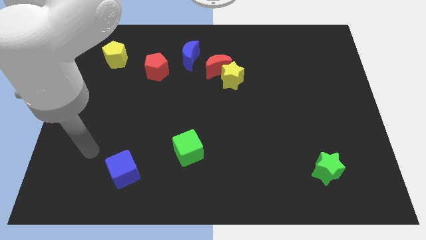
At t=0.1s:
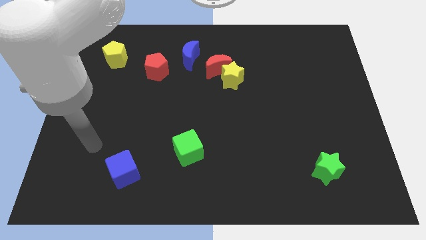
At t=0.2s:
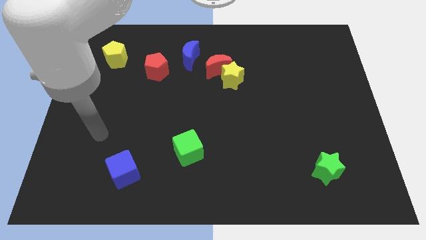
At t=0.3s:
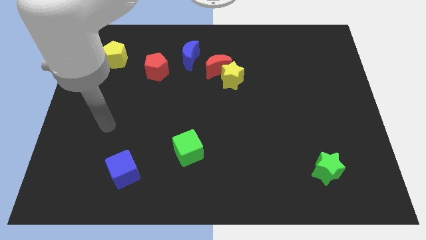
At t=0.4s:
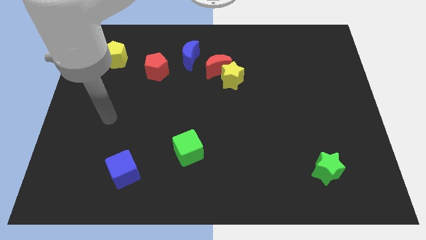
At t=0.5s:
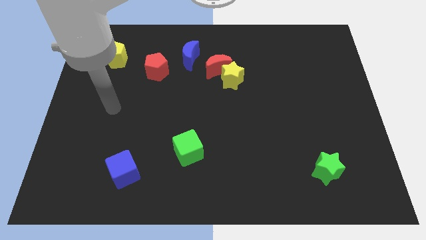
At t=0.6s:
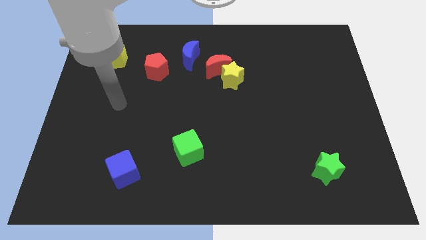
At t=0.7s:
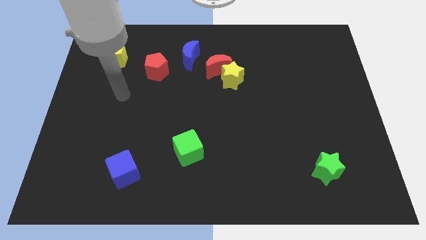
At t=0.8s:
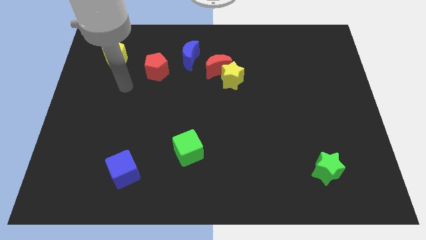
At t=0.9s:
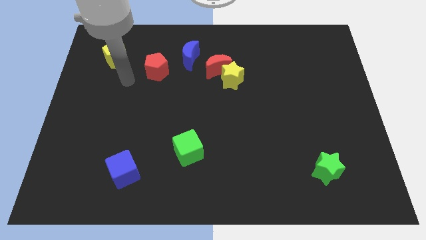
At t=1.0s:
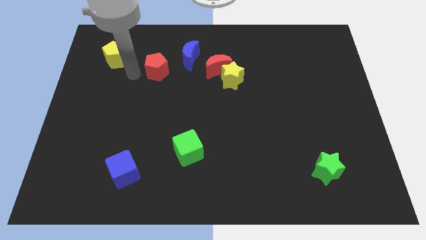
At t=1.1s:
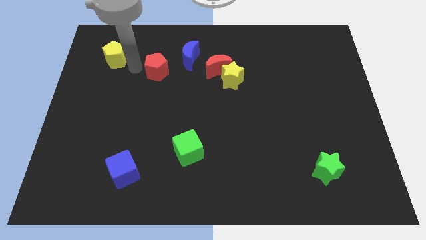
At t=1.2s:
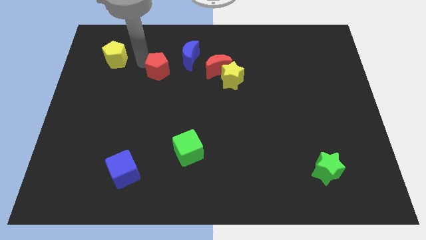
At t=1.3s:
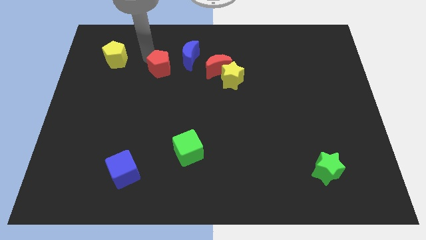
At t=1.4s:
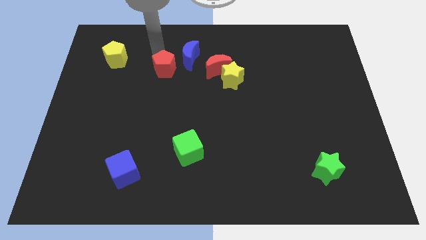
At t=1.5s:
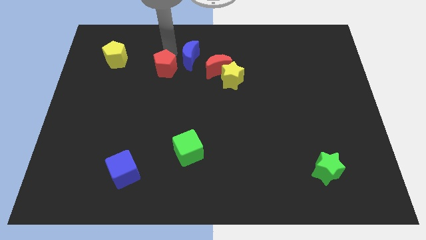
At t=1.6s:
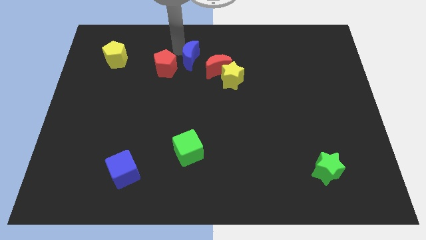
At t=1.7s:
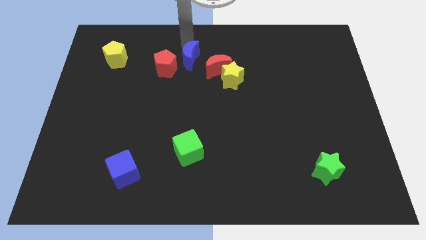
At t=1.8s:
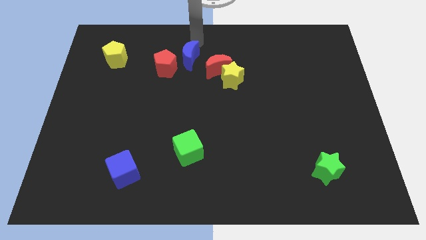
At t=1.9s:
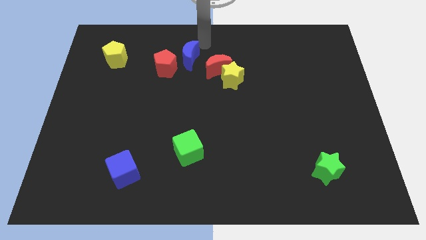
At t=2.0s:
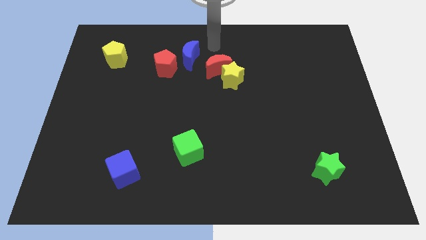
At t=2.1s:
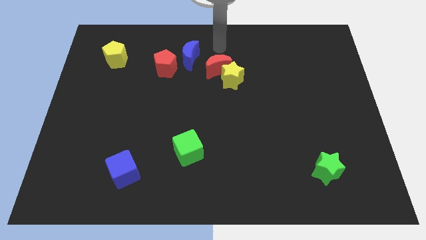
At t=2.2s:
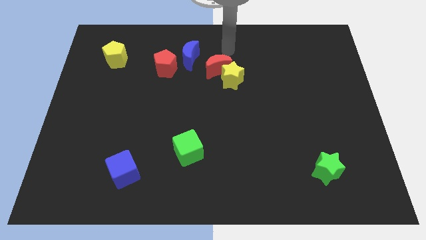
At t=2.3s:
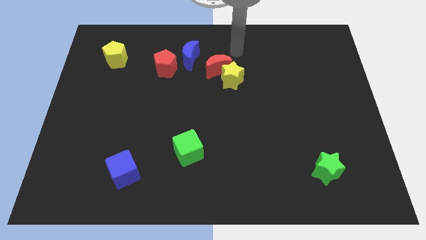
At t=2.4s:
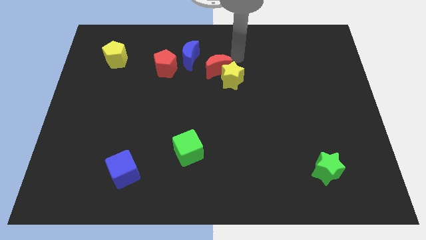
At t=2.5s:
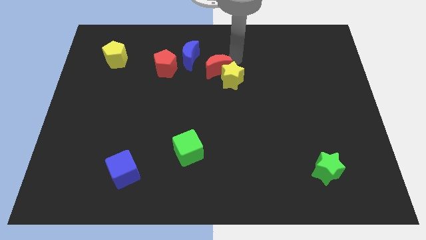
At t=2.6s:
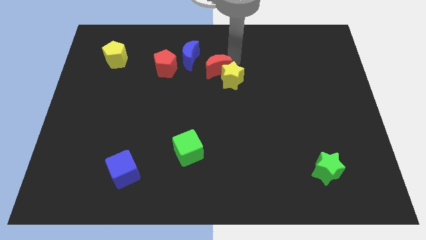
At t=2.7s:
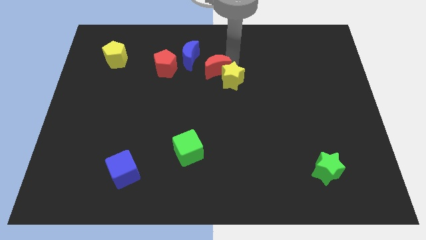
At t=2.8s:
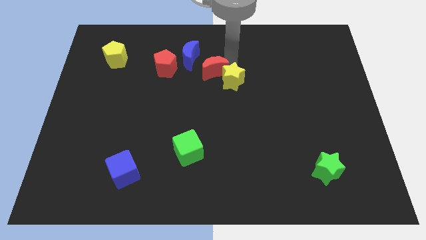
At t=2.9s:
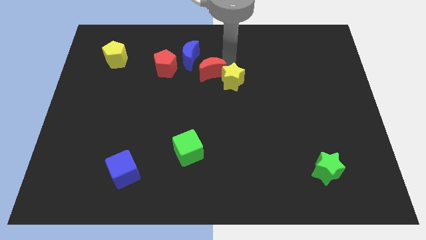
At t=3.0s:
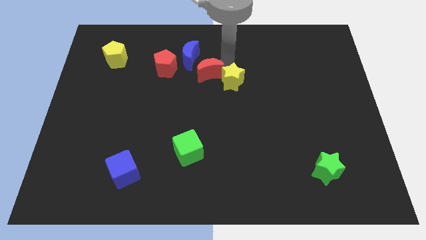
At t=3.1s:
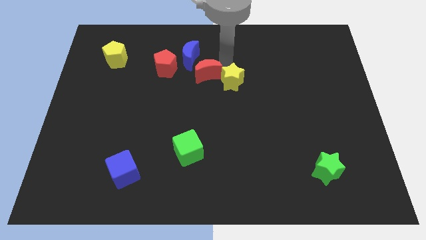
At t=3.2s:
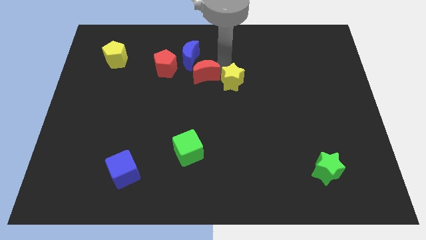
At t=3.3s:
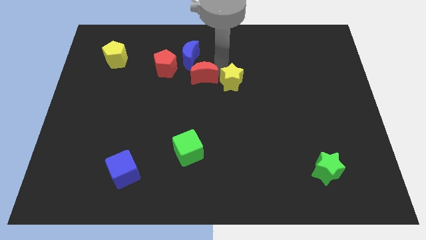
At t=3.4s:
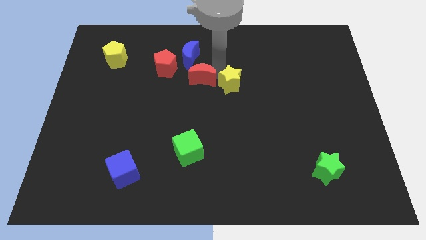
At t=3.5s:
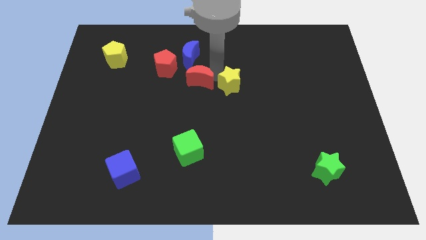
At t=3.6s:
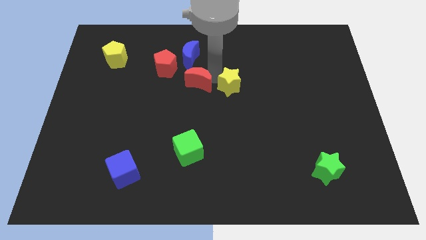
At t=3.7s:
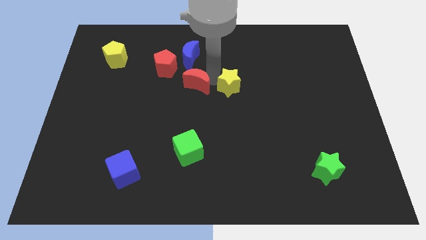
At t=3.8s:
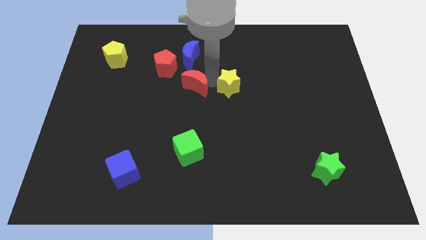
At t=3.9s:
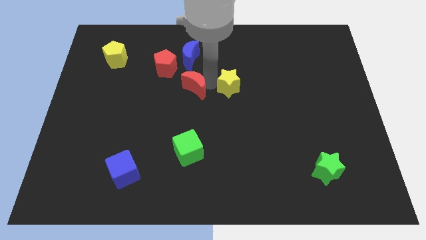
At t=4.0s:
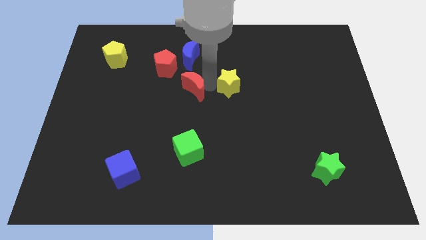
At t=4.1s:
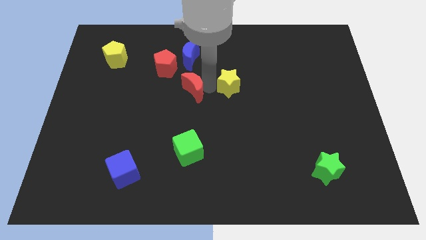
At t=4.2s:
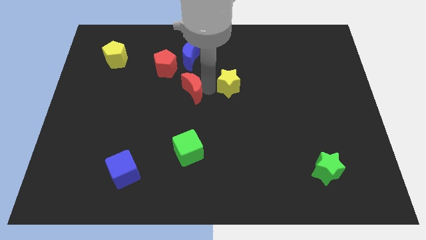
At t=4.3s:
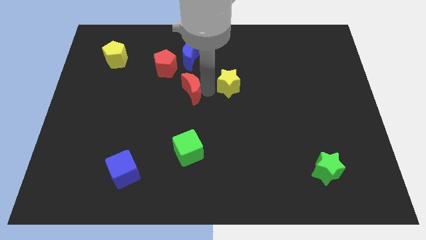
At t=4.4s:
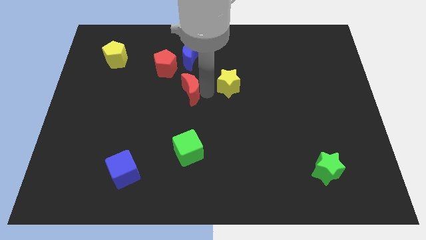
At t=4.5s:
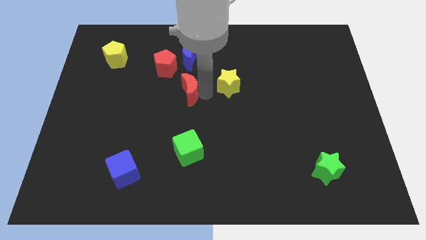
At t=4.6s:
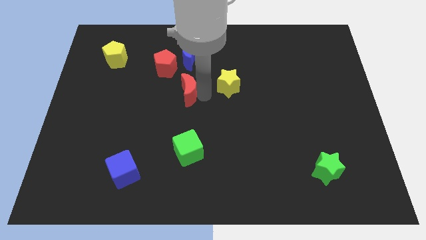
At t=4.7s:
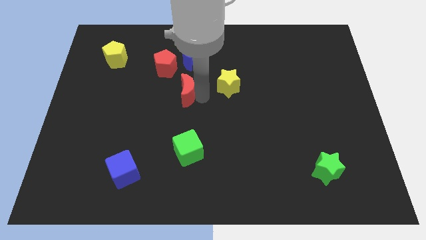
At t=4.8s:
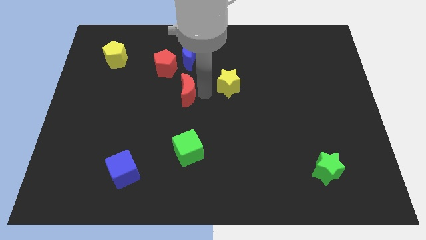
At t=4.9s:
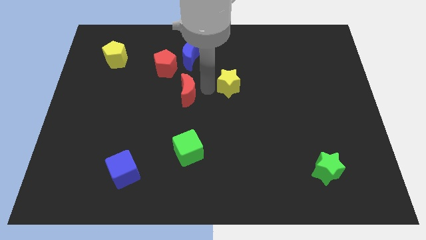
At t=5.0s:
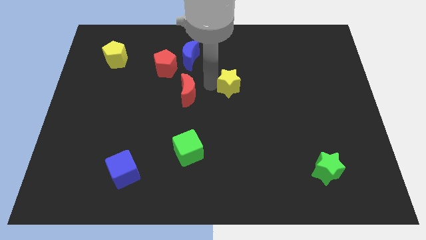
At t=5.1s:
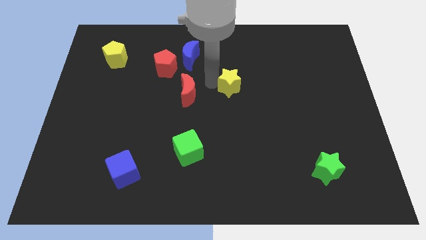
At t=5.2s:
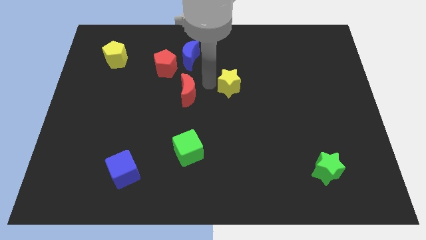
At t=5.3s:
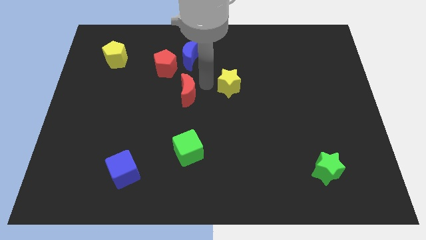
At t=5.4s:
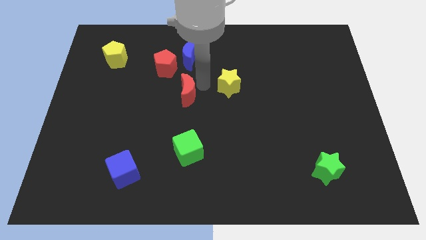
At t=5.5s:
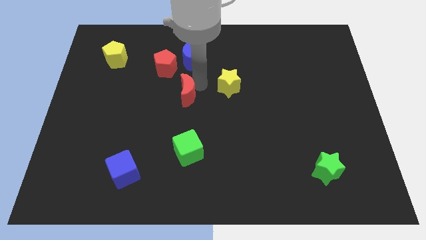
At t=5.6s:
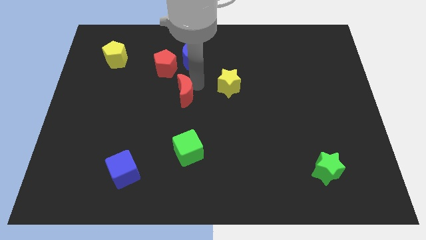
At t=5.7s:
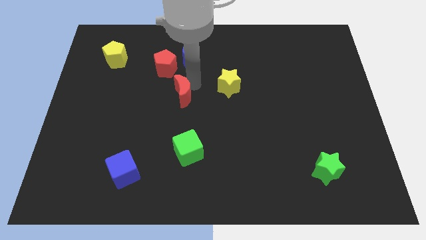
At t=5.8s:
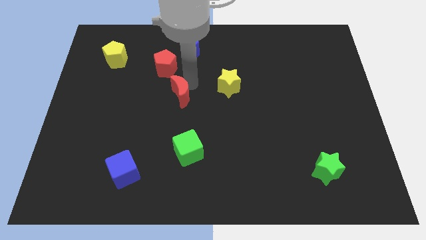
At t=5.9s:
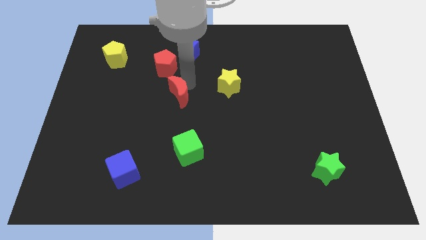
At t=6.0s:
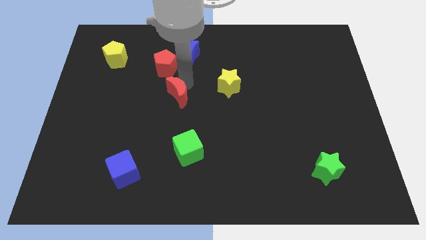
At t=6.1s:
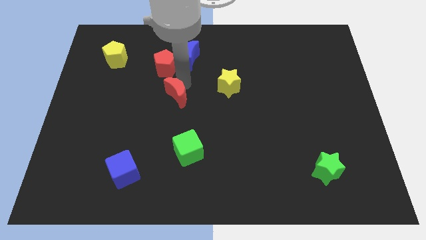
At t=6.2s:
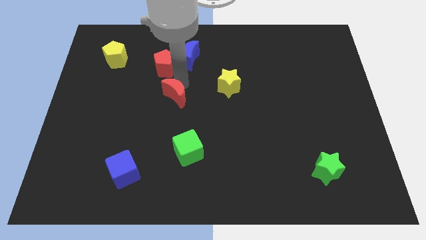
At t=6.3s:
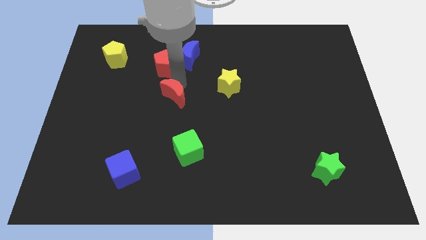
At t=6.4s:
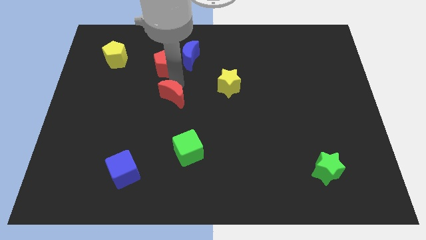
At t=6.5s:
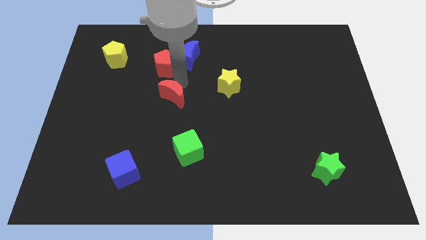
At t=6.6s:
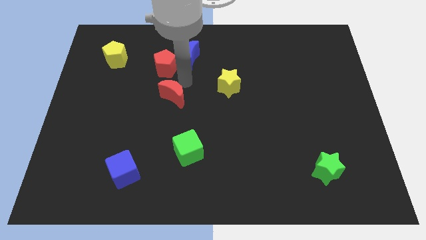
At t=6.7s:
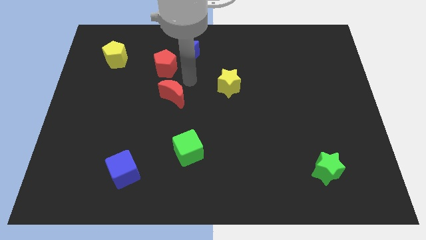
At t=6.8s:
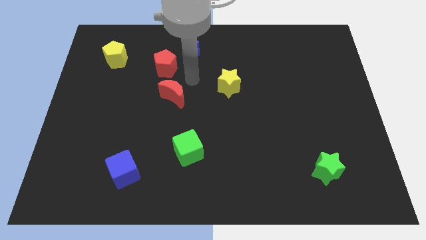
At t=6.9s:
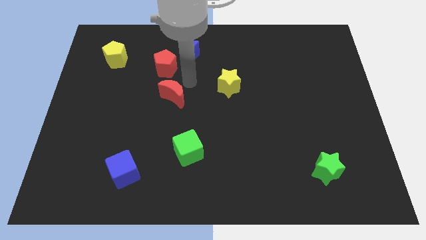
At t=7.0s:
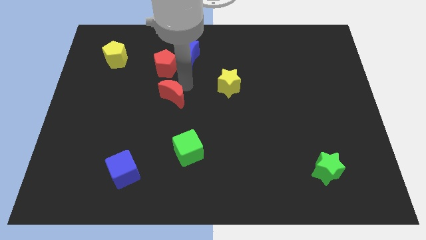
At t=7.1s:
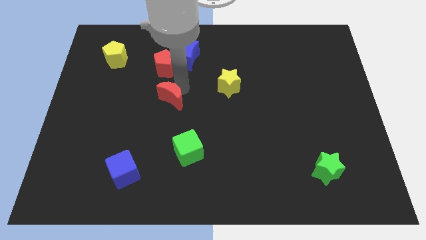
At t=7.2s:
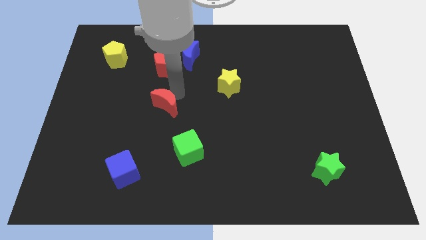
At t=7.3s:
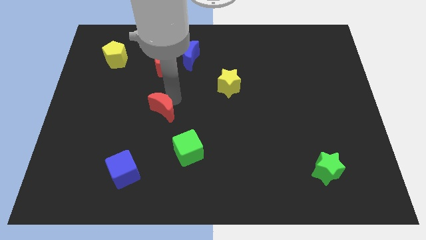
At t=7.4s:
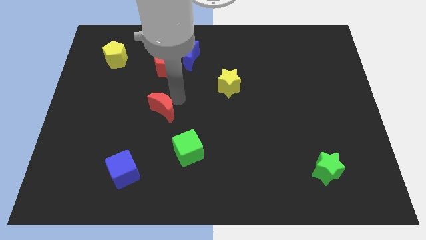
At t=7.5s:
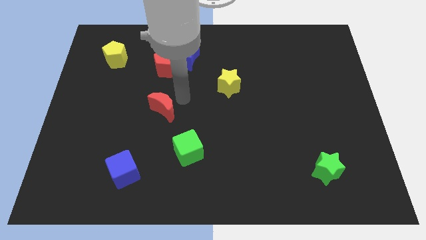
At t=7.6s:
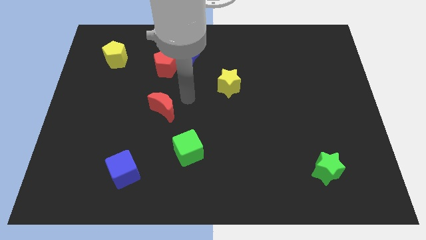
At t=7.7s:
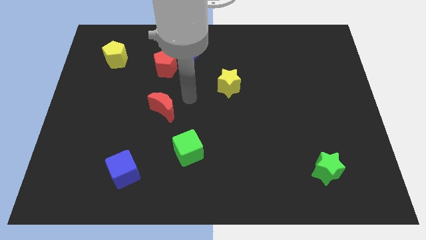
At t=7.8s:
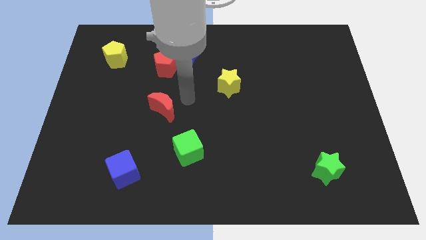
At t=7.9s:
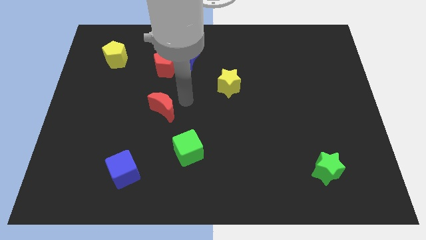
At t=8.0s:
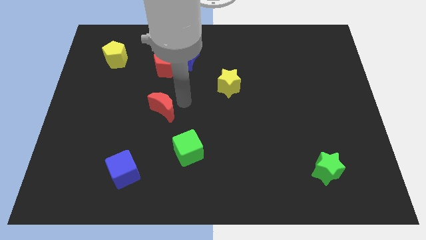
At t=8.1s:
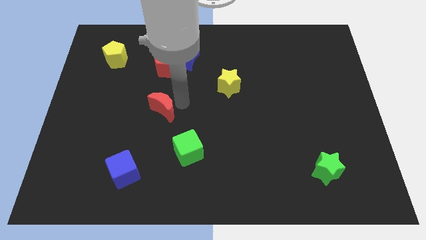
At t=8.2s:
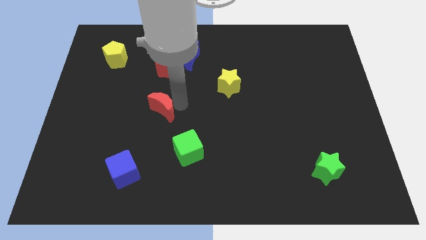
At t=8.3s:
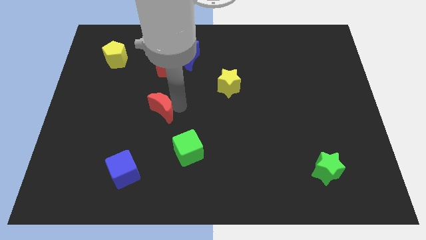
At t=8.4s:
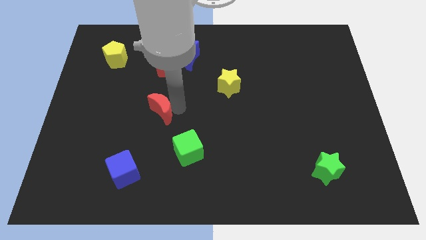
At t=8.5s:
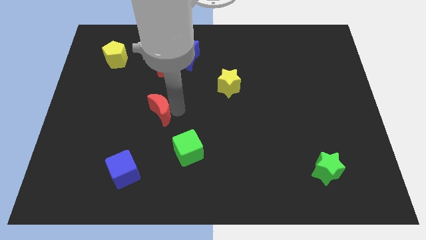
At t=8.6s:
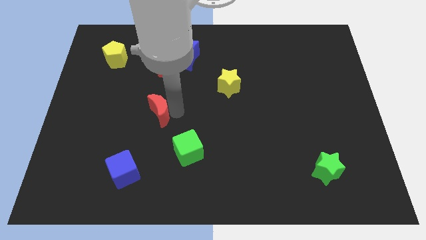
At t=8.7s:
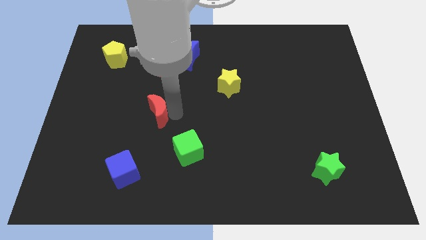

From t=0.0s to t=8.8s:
move the red moon downwards and then left
